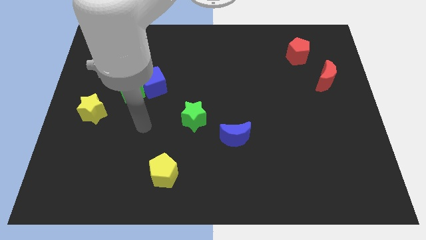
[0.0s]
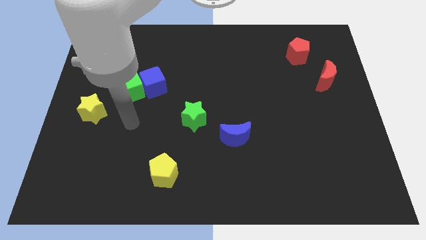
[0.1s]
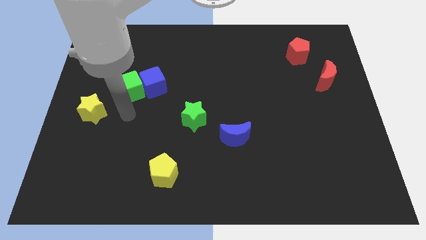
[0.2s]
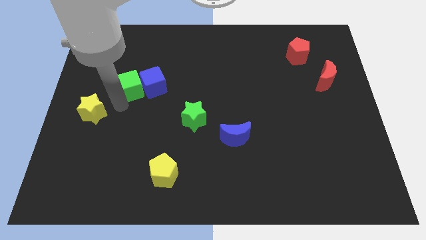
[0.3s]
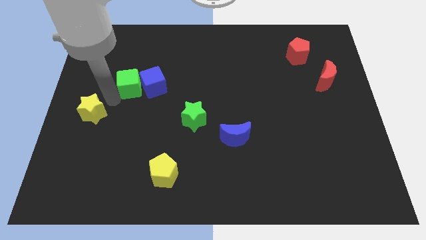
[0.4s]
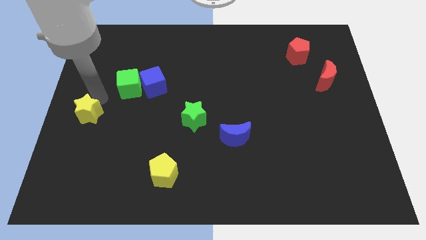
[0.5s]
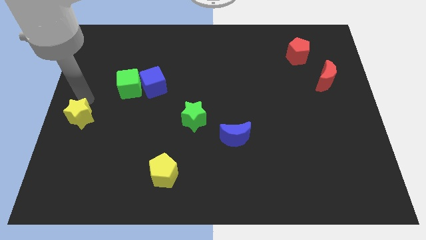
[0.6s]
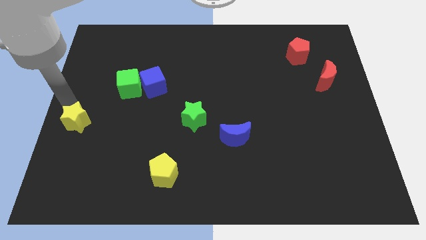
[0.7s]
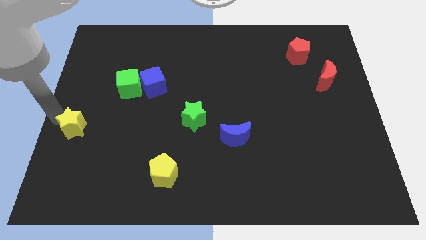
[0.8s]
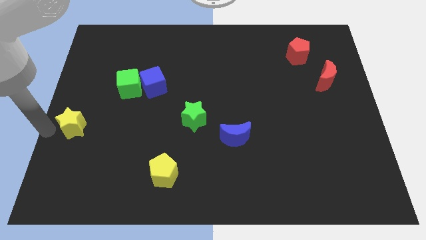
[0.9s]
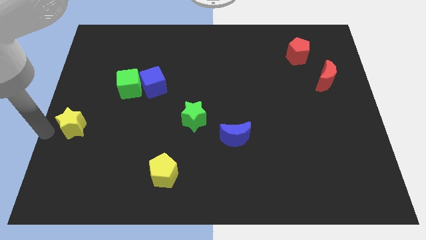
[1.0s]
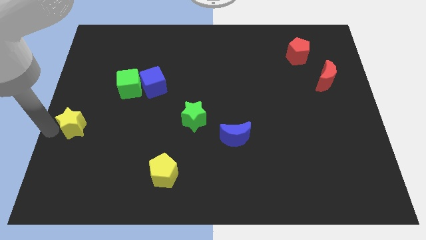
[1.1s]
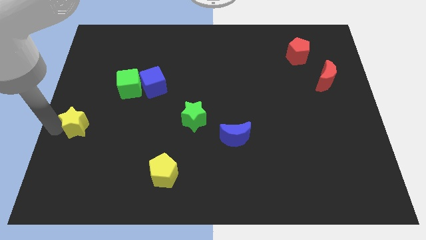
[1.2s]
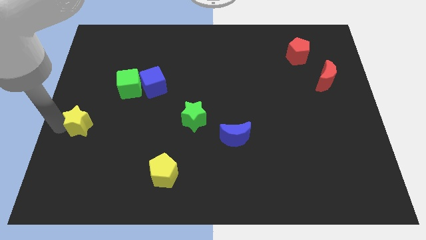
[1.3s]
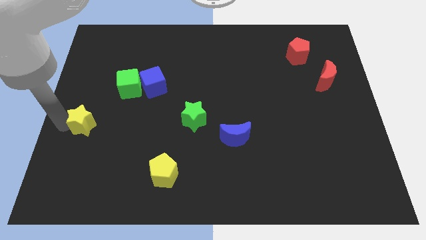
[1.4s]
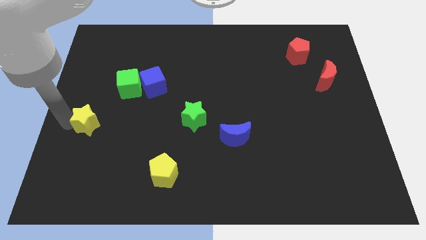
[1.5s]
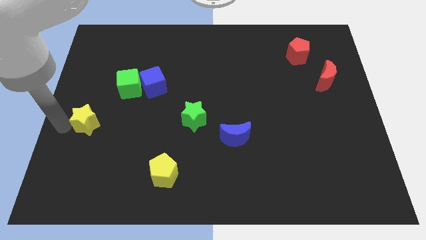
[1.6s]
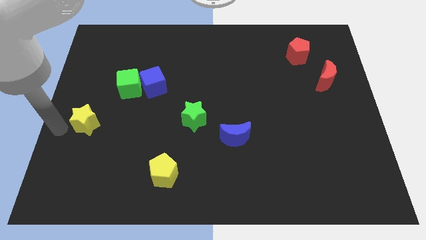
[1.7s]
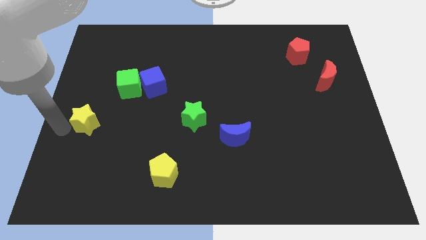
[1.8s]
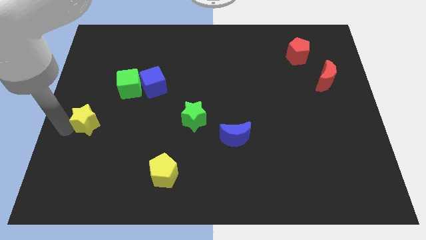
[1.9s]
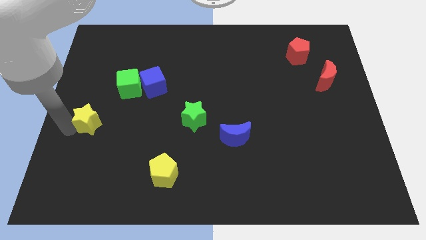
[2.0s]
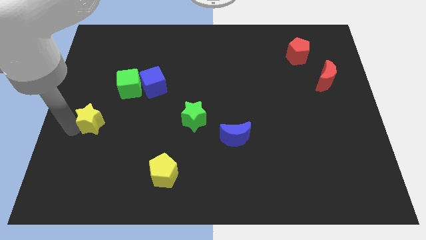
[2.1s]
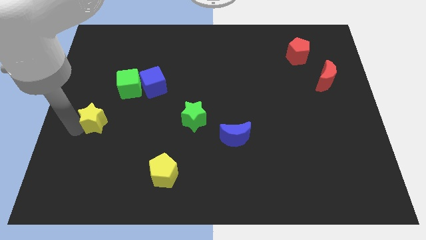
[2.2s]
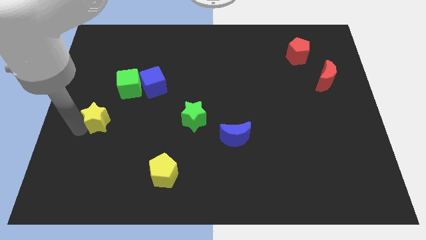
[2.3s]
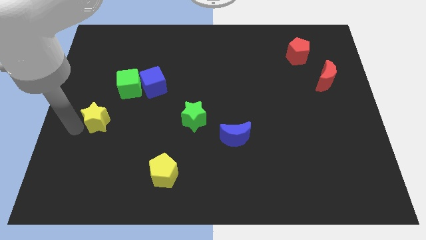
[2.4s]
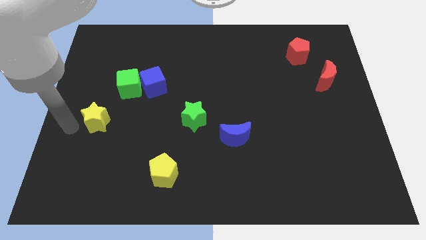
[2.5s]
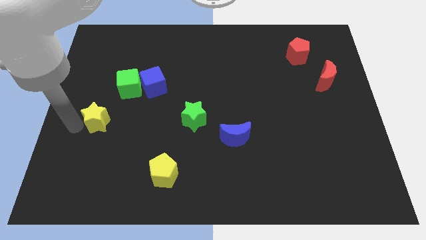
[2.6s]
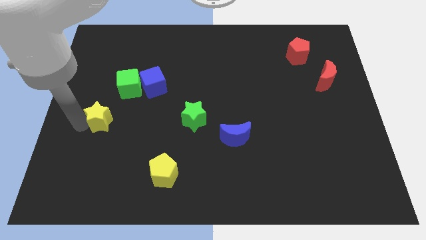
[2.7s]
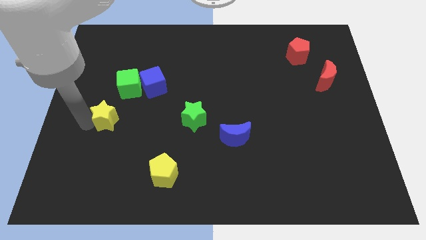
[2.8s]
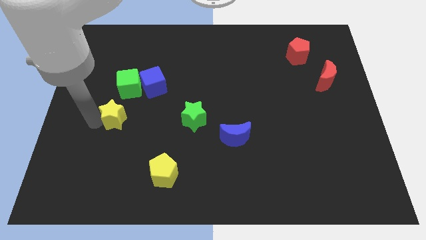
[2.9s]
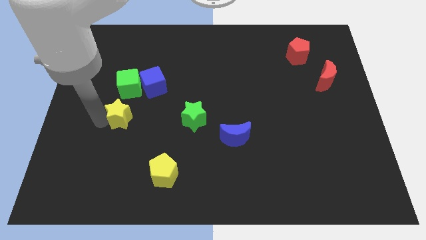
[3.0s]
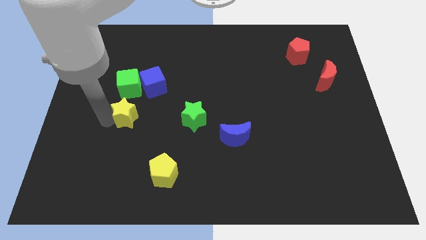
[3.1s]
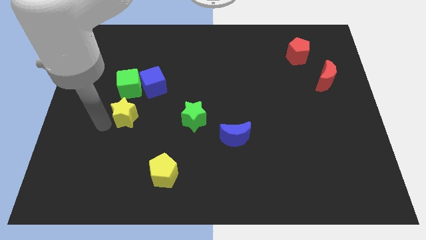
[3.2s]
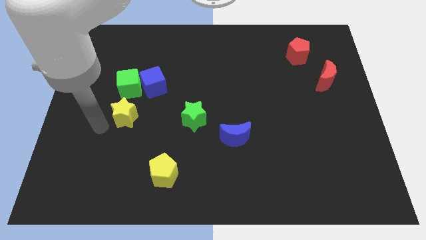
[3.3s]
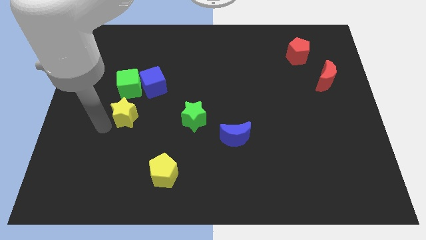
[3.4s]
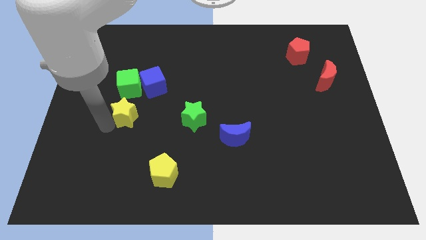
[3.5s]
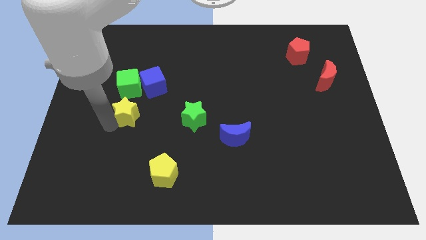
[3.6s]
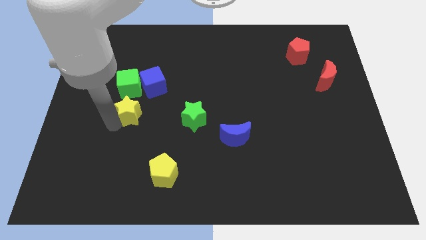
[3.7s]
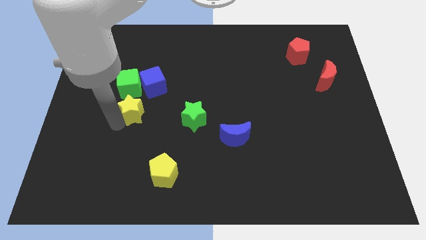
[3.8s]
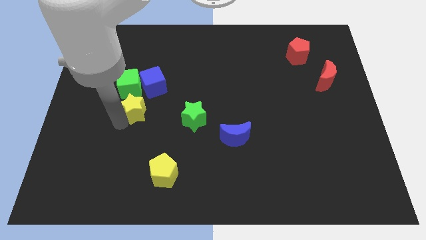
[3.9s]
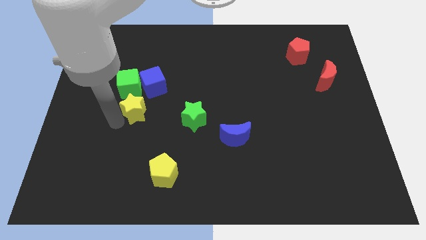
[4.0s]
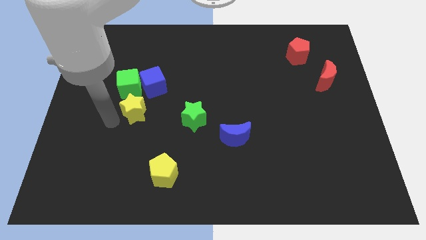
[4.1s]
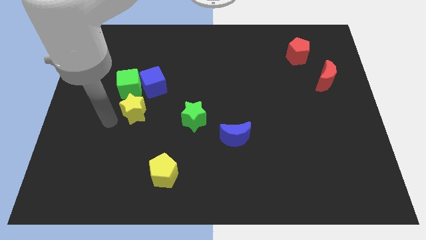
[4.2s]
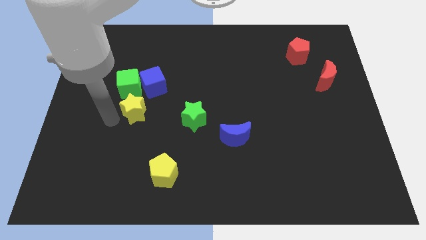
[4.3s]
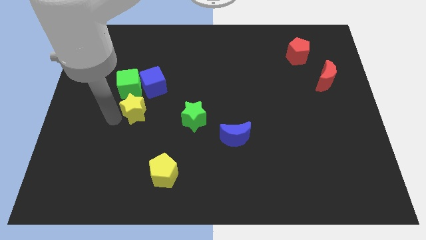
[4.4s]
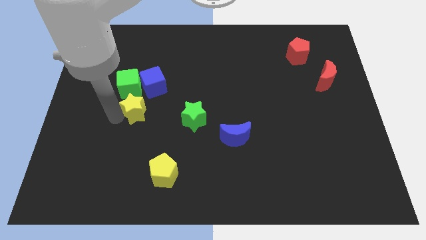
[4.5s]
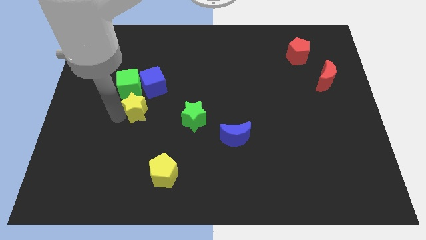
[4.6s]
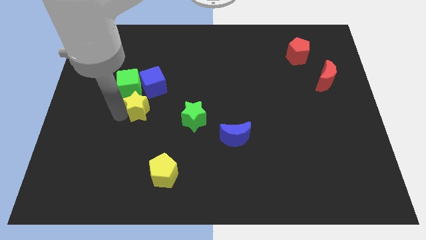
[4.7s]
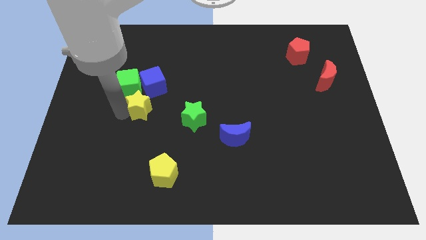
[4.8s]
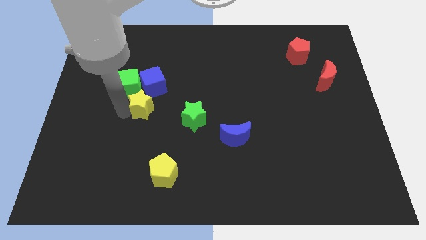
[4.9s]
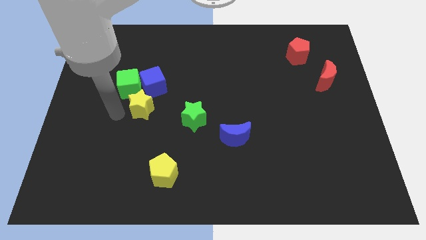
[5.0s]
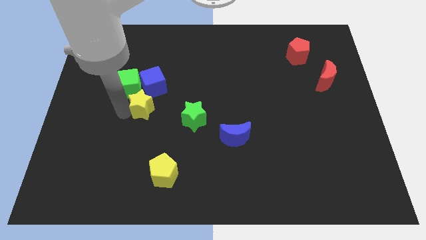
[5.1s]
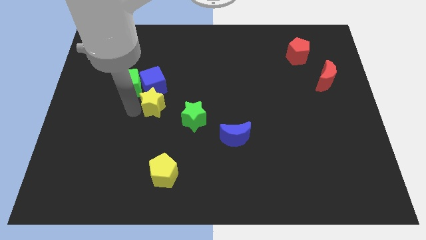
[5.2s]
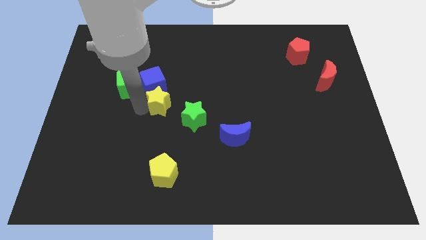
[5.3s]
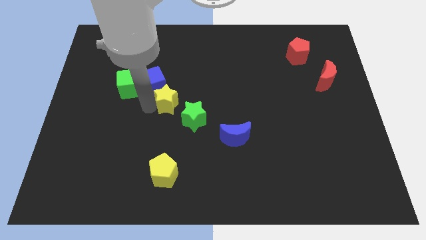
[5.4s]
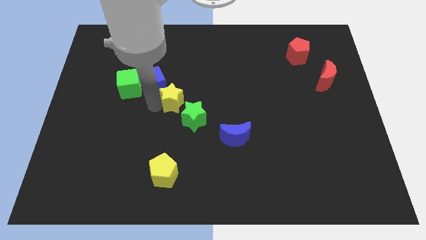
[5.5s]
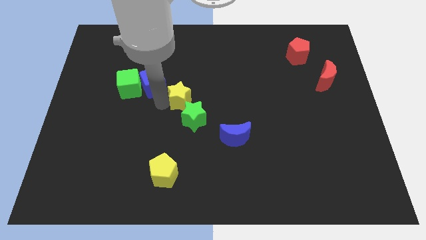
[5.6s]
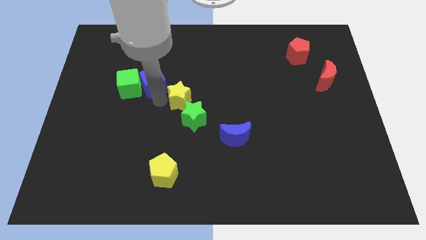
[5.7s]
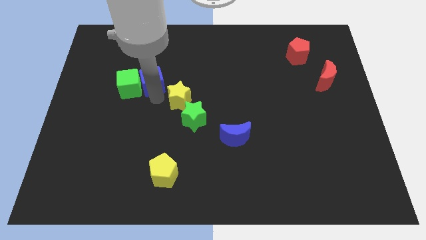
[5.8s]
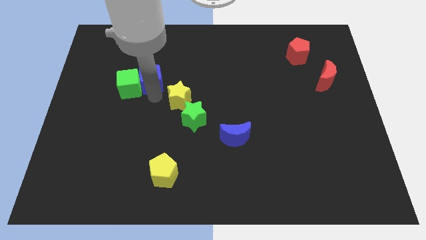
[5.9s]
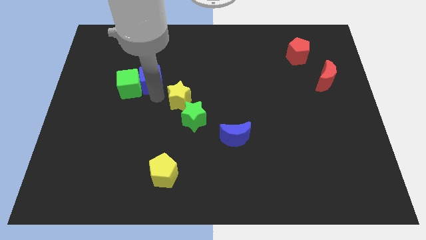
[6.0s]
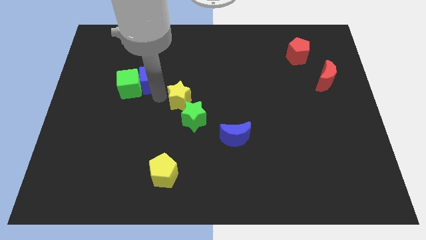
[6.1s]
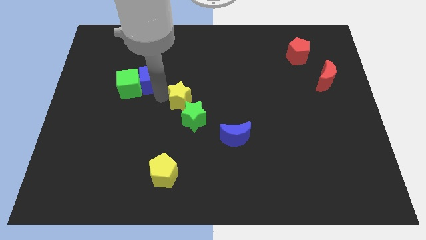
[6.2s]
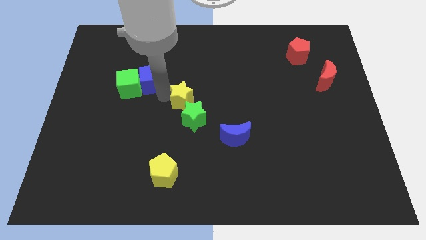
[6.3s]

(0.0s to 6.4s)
slide the yellow star to the right

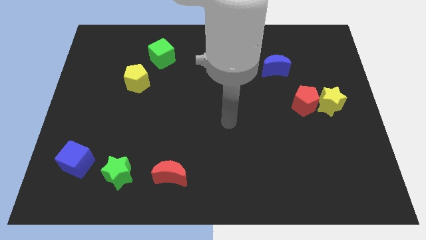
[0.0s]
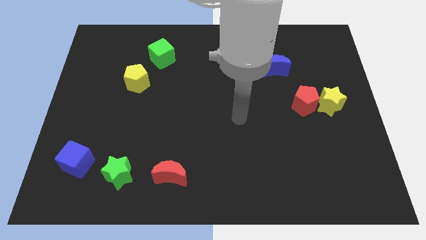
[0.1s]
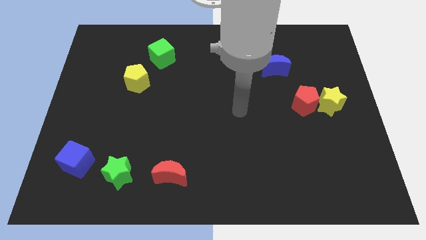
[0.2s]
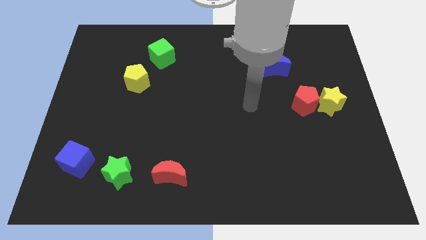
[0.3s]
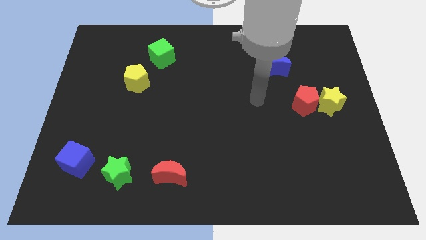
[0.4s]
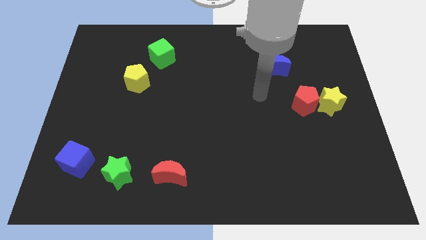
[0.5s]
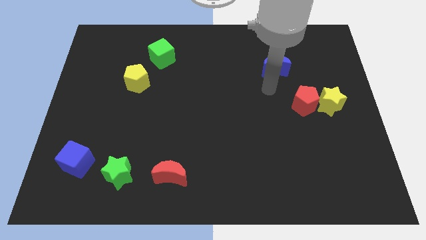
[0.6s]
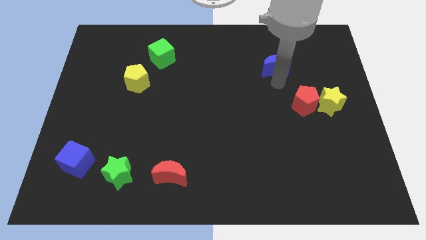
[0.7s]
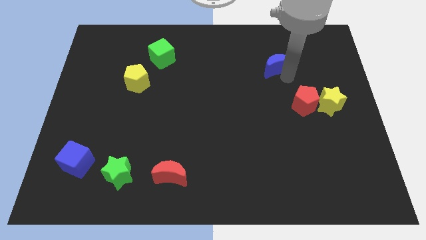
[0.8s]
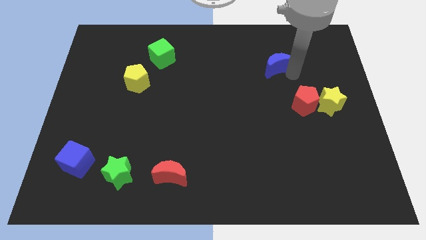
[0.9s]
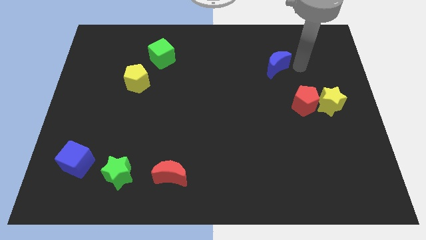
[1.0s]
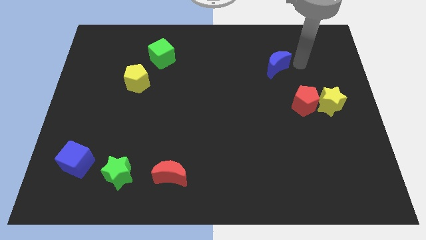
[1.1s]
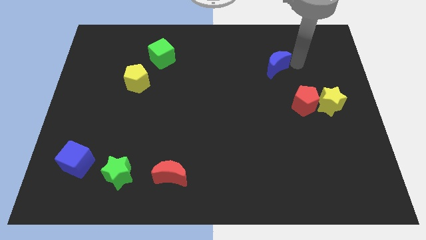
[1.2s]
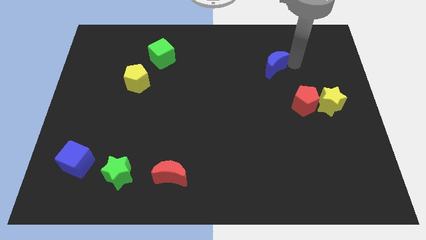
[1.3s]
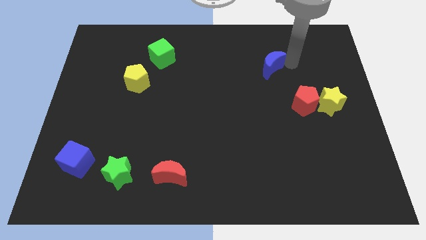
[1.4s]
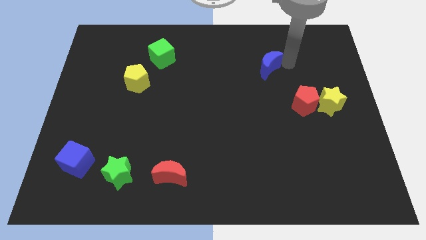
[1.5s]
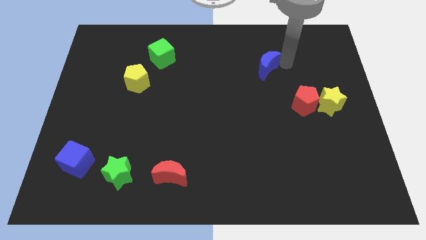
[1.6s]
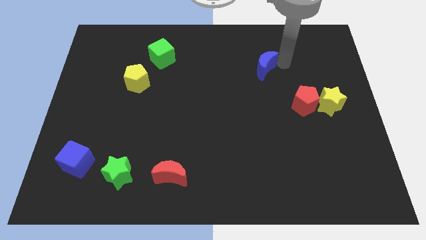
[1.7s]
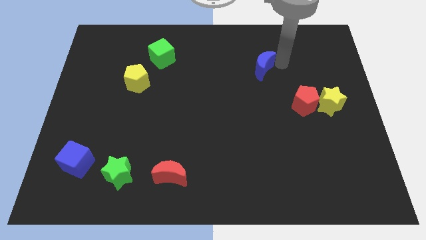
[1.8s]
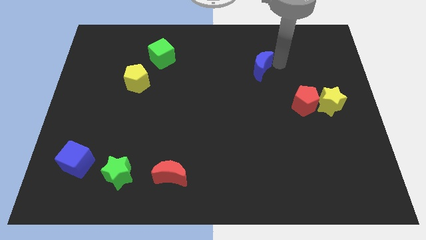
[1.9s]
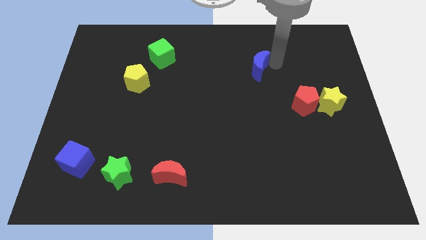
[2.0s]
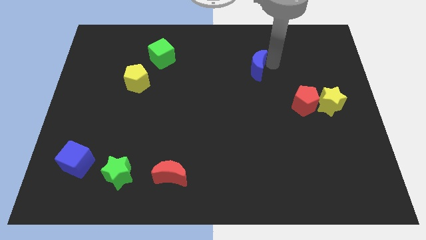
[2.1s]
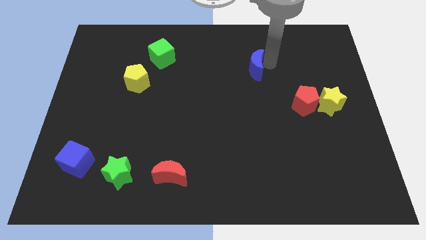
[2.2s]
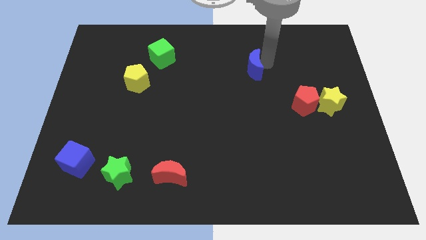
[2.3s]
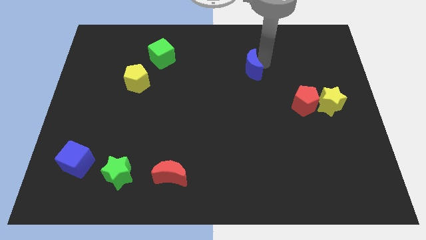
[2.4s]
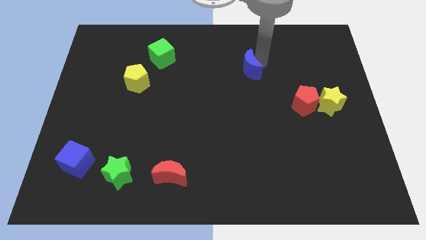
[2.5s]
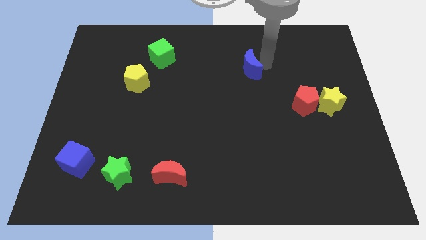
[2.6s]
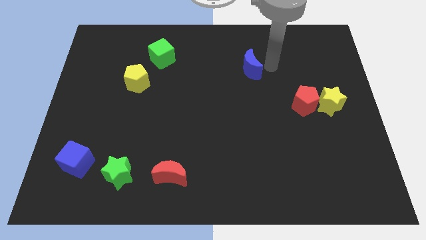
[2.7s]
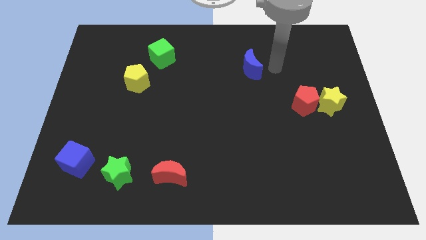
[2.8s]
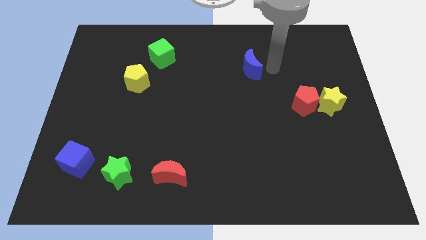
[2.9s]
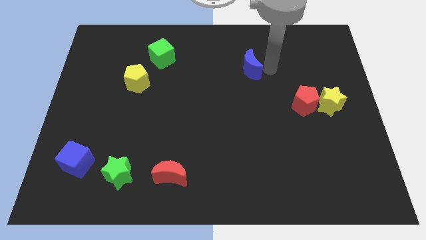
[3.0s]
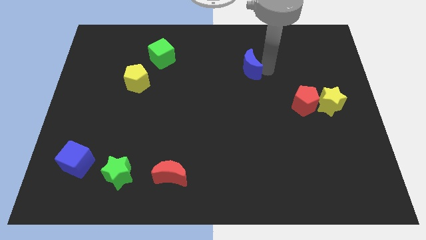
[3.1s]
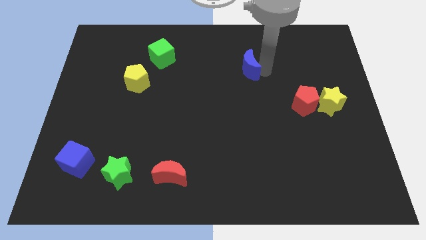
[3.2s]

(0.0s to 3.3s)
push the blue moon a little bit left
